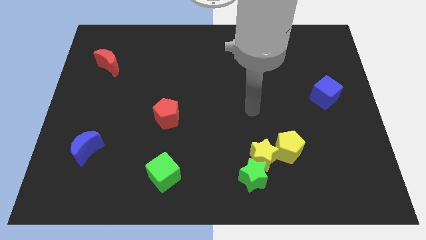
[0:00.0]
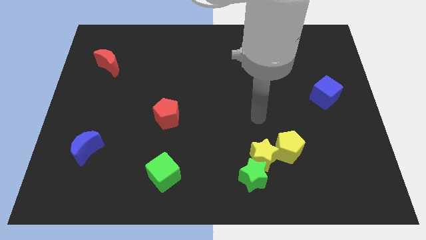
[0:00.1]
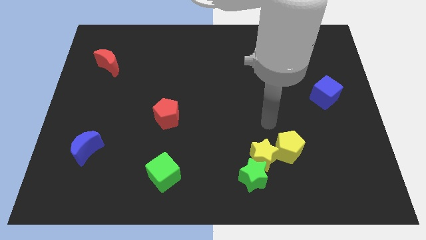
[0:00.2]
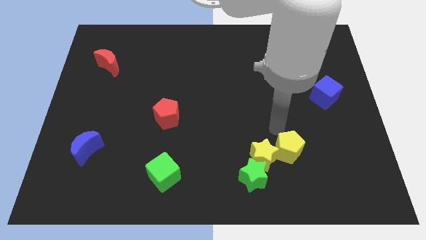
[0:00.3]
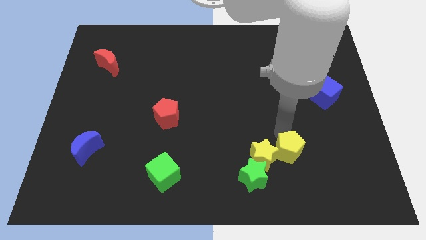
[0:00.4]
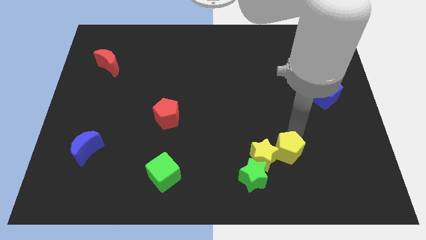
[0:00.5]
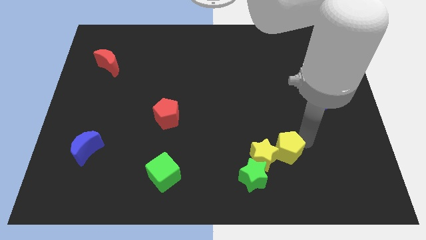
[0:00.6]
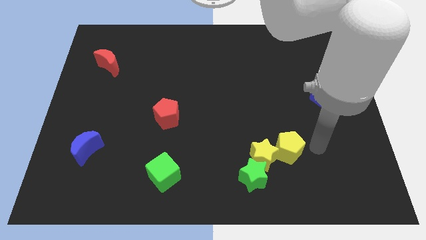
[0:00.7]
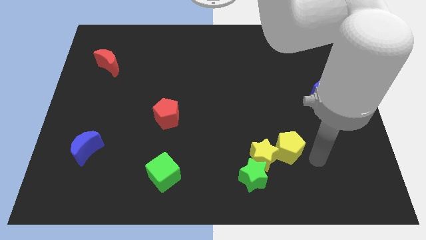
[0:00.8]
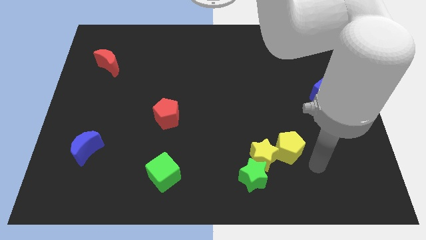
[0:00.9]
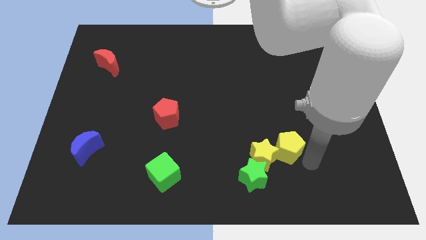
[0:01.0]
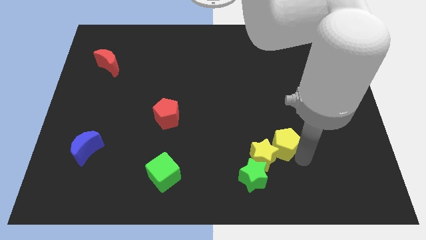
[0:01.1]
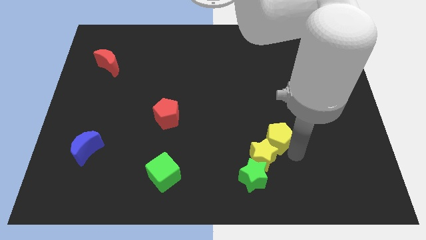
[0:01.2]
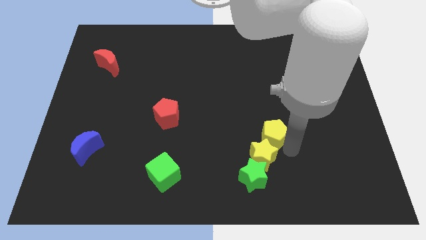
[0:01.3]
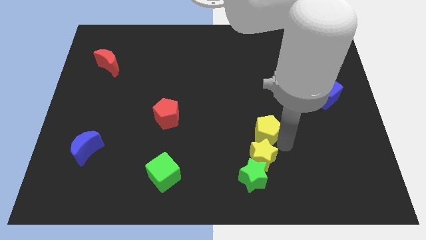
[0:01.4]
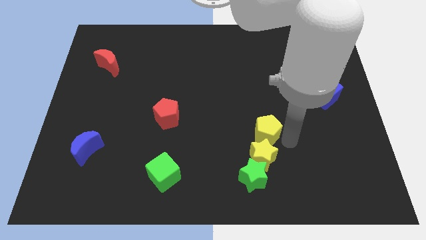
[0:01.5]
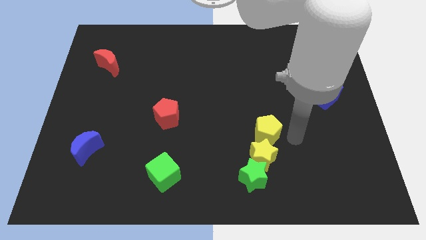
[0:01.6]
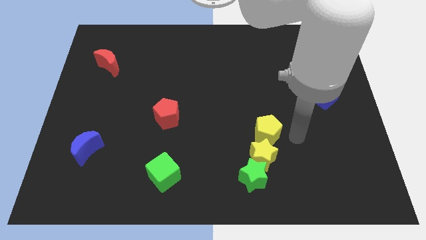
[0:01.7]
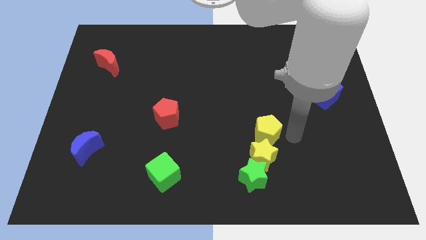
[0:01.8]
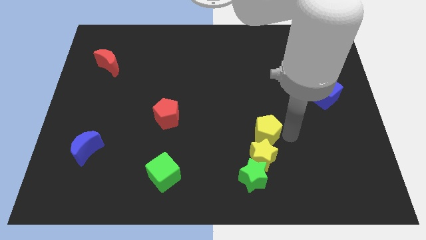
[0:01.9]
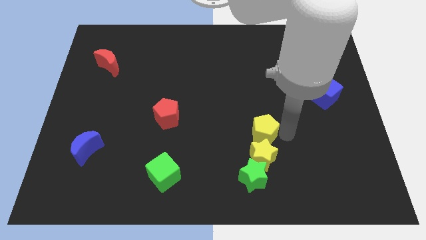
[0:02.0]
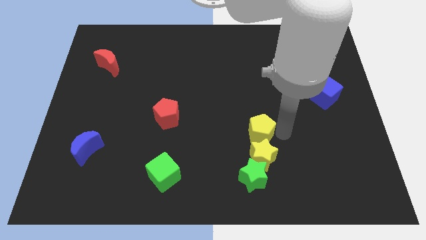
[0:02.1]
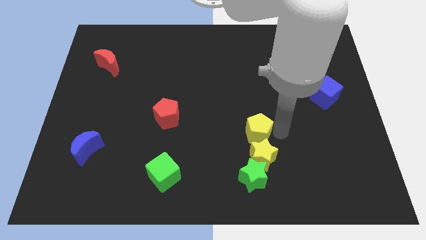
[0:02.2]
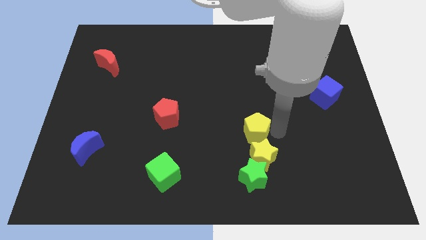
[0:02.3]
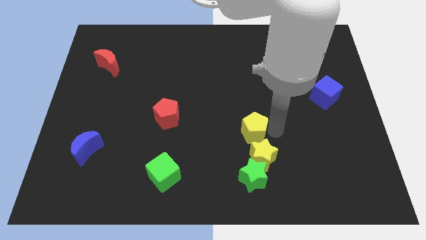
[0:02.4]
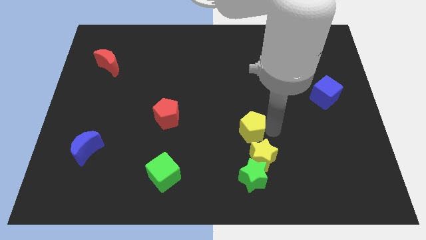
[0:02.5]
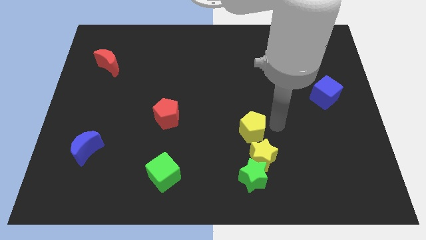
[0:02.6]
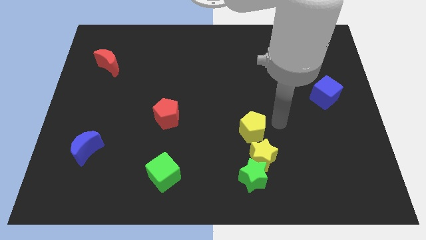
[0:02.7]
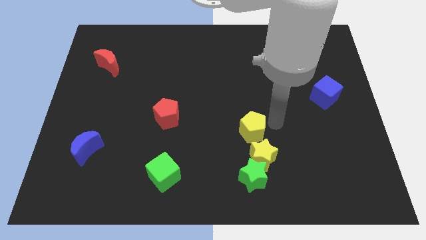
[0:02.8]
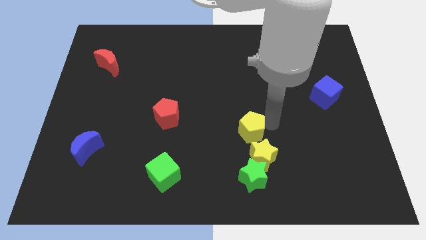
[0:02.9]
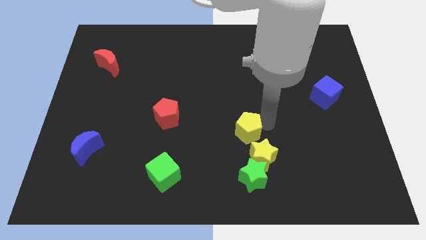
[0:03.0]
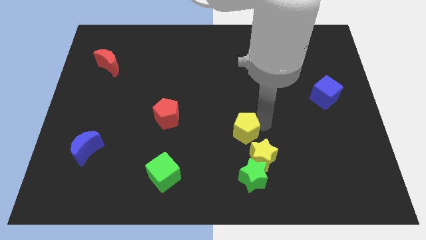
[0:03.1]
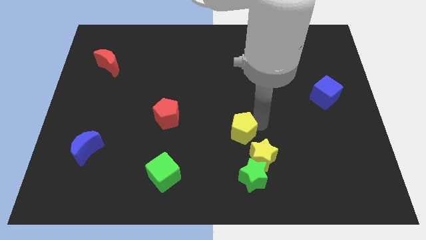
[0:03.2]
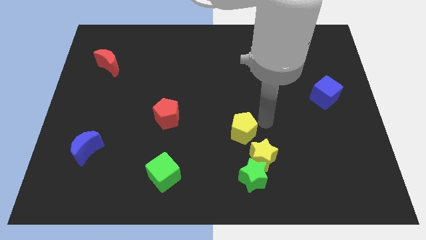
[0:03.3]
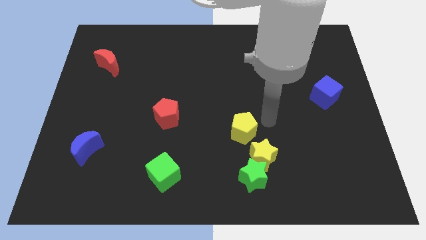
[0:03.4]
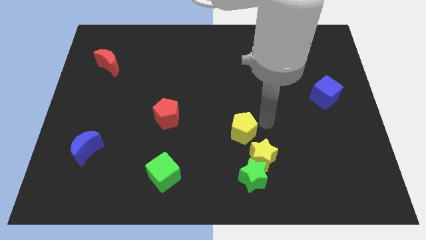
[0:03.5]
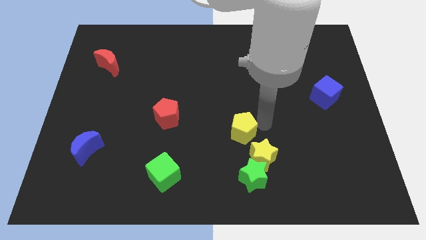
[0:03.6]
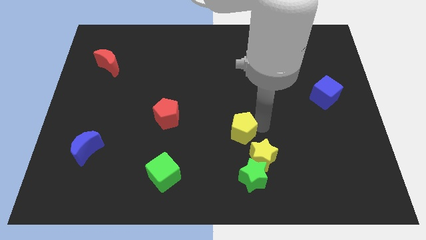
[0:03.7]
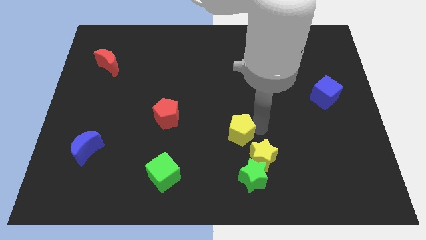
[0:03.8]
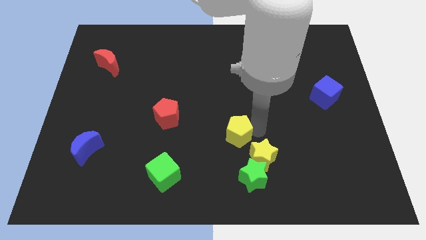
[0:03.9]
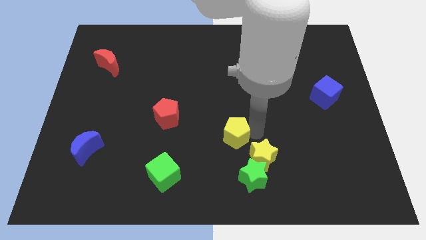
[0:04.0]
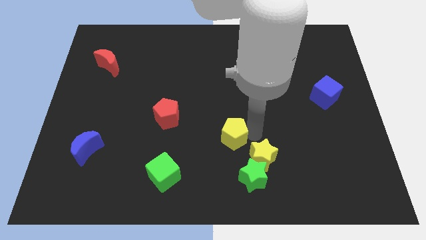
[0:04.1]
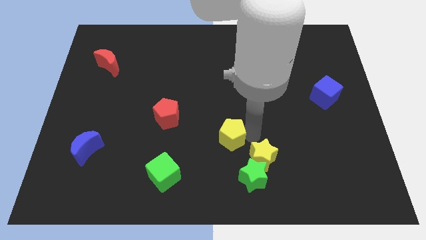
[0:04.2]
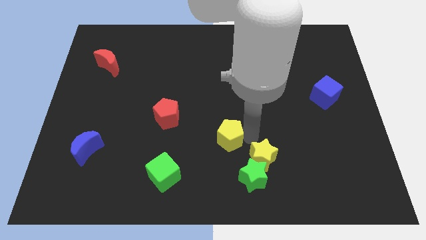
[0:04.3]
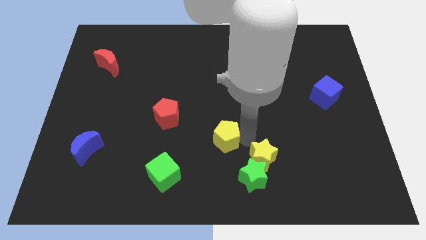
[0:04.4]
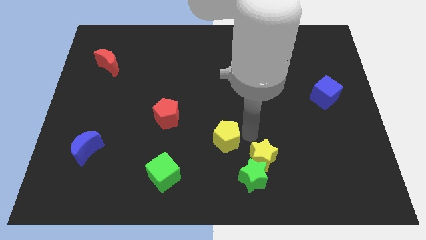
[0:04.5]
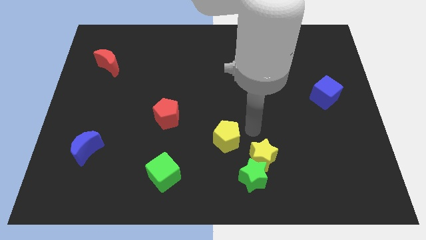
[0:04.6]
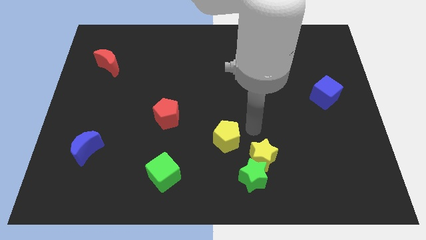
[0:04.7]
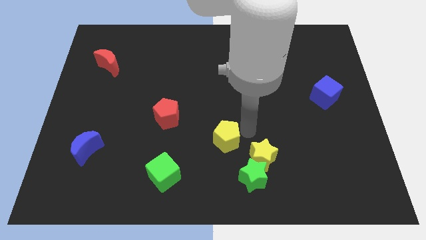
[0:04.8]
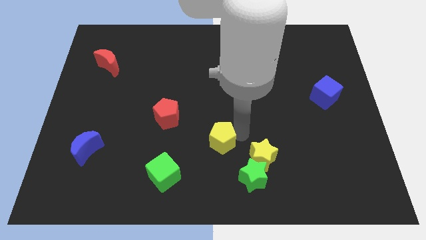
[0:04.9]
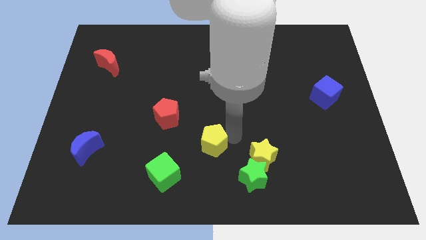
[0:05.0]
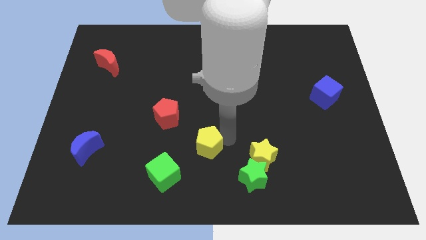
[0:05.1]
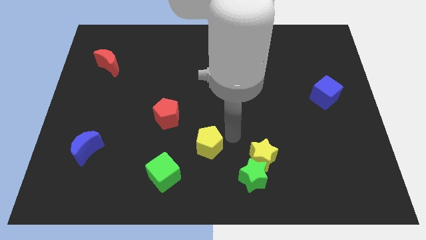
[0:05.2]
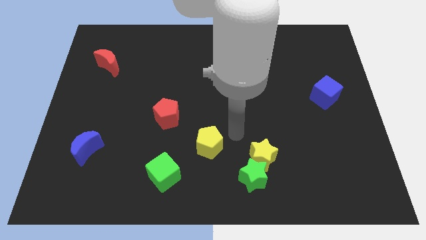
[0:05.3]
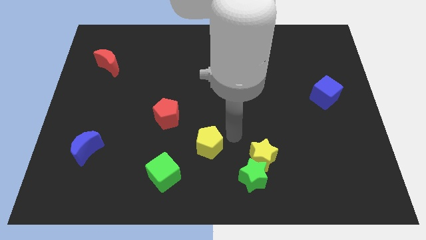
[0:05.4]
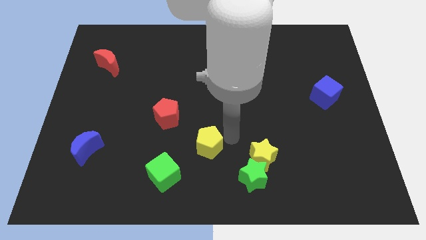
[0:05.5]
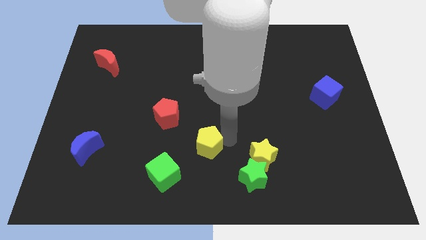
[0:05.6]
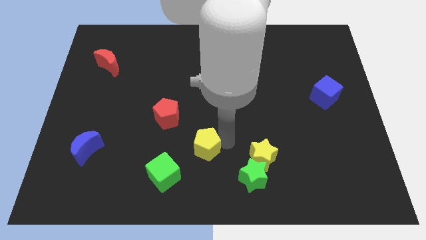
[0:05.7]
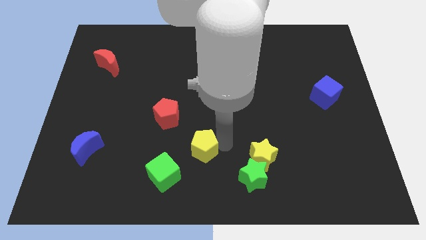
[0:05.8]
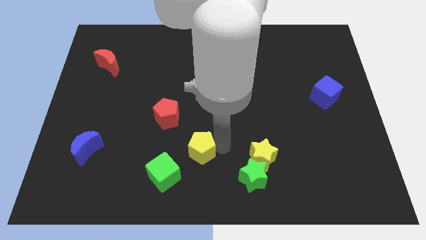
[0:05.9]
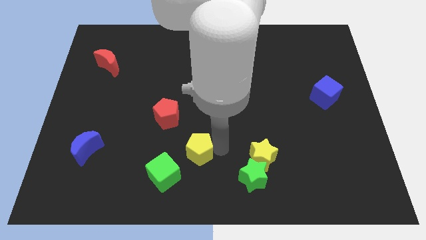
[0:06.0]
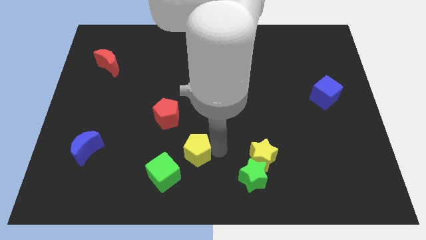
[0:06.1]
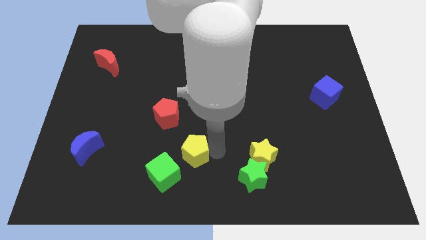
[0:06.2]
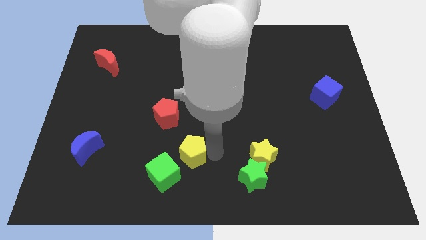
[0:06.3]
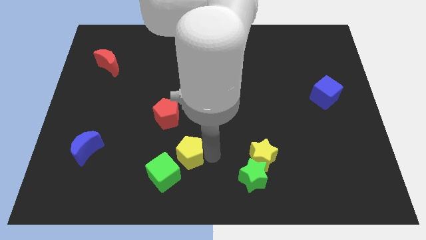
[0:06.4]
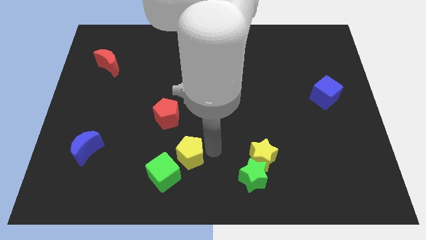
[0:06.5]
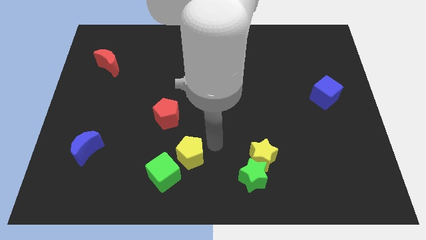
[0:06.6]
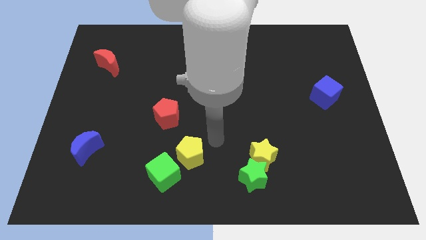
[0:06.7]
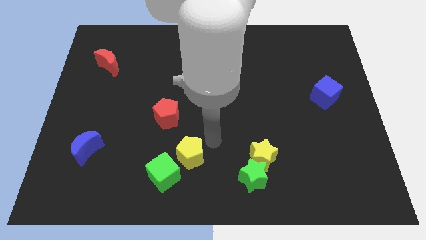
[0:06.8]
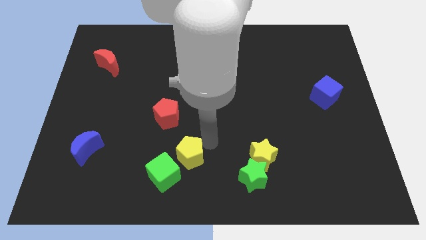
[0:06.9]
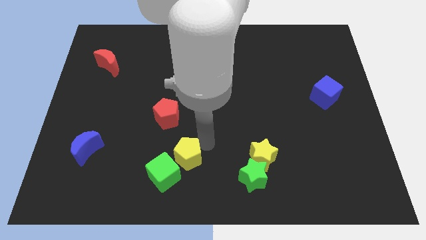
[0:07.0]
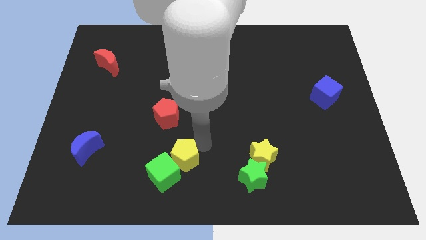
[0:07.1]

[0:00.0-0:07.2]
put the yellow pentagon next to the green cube
